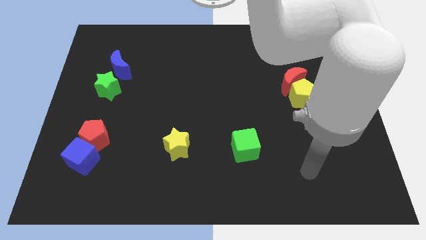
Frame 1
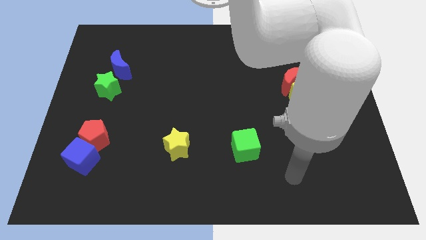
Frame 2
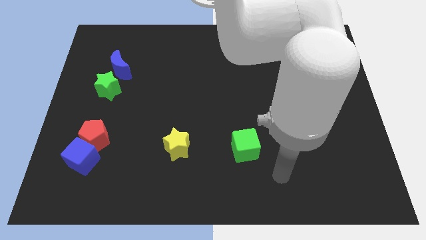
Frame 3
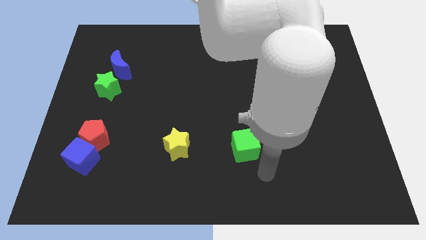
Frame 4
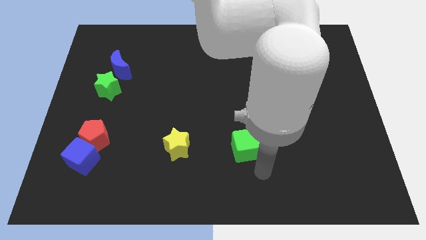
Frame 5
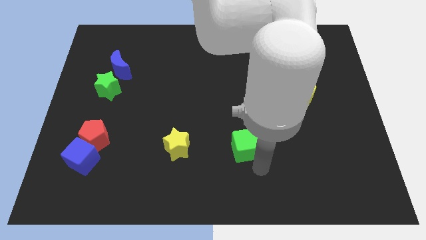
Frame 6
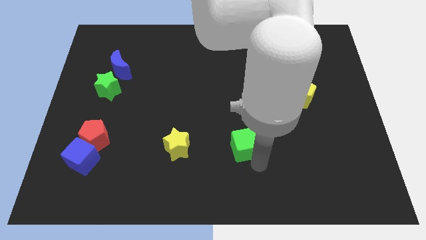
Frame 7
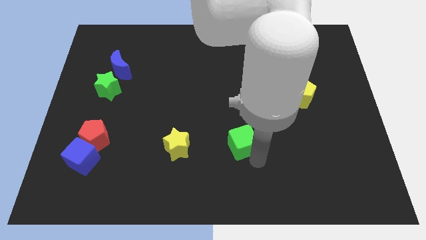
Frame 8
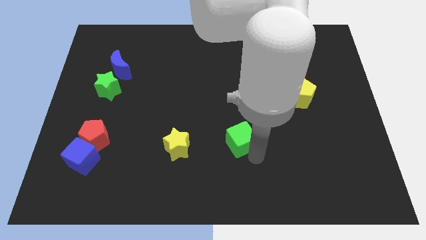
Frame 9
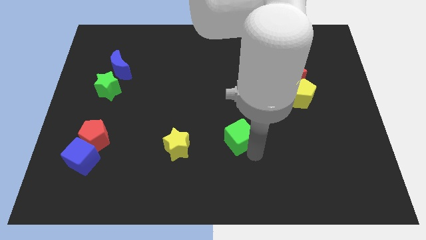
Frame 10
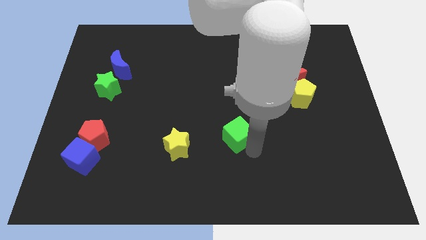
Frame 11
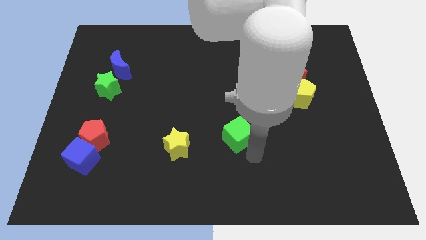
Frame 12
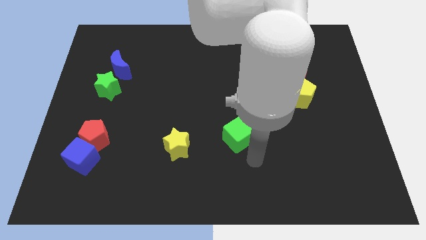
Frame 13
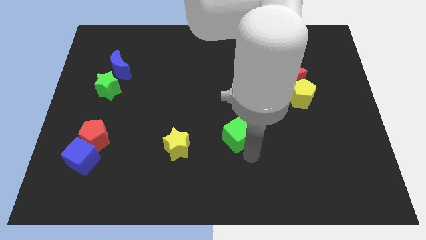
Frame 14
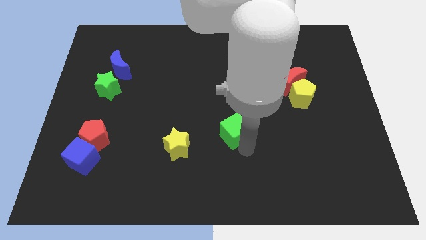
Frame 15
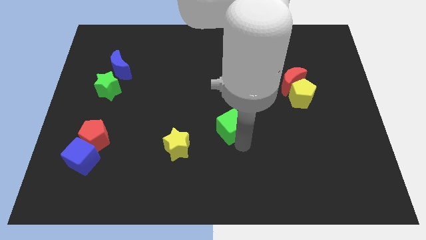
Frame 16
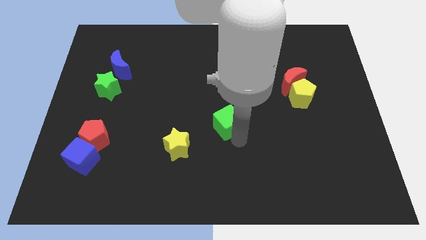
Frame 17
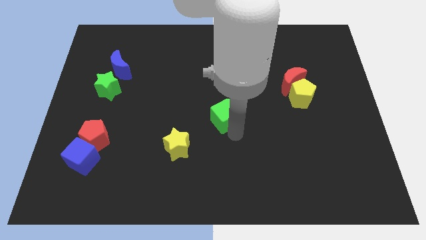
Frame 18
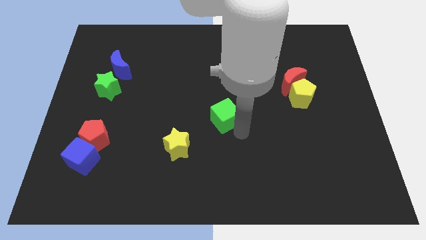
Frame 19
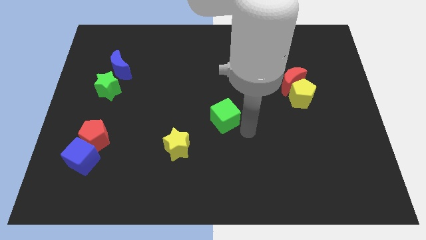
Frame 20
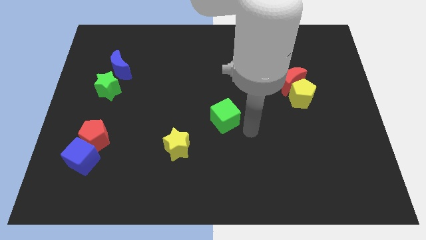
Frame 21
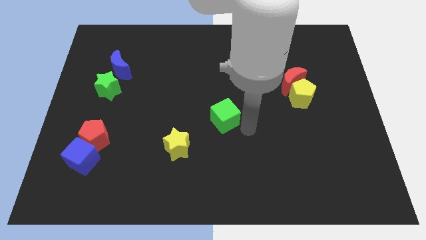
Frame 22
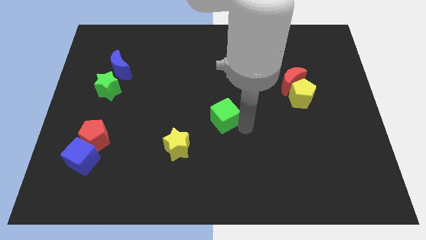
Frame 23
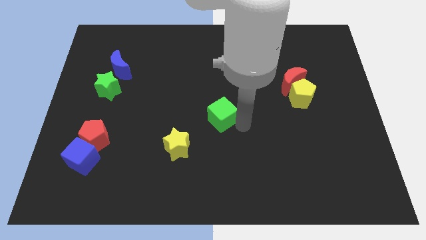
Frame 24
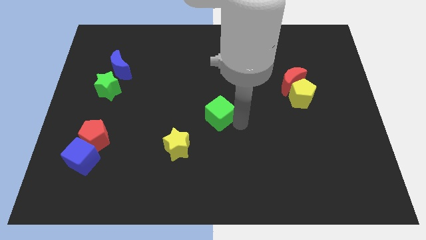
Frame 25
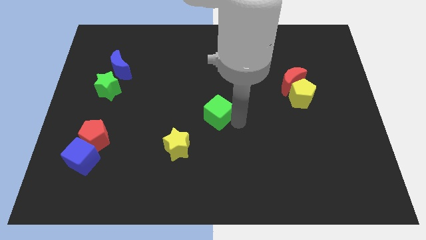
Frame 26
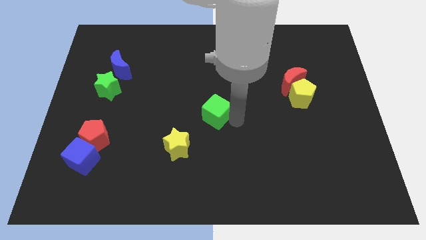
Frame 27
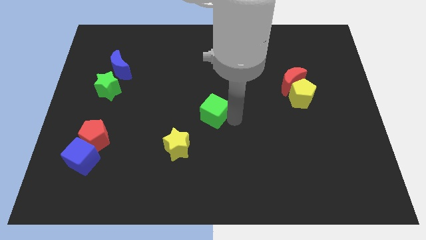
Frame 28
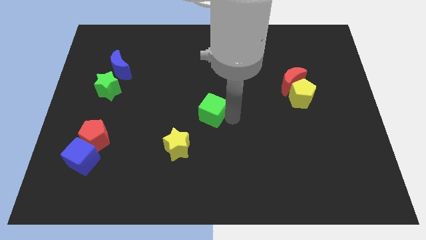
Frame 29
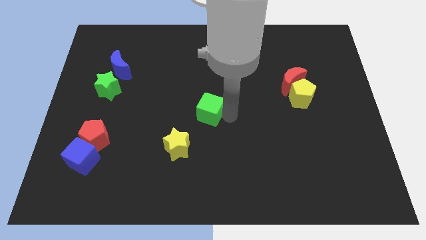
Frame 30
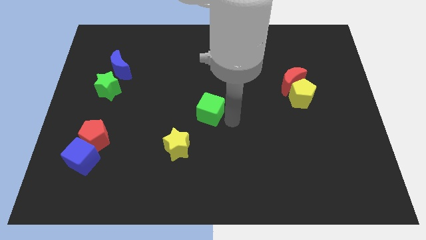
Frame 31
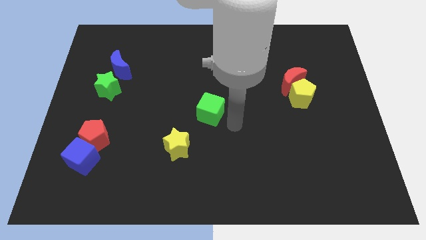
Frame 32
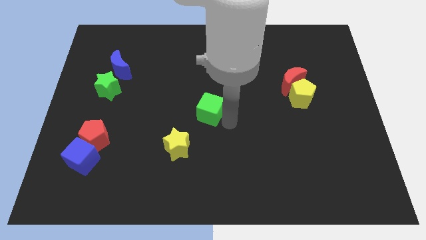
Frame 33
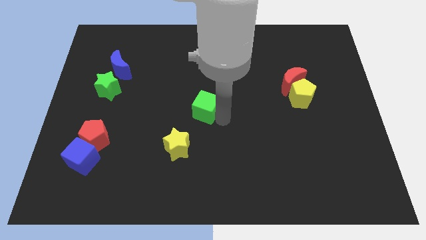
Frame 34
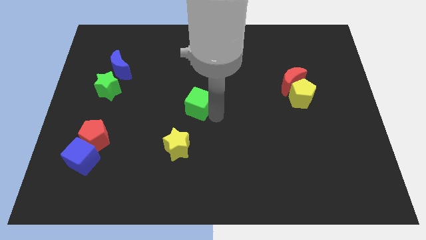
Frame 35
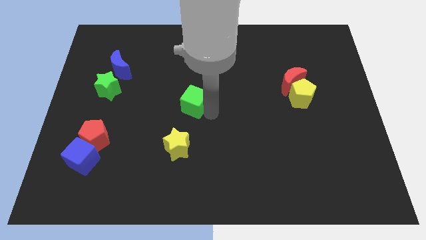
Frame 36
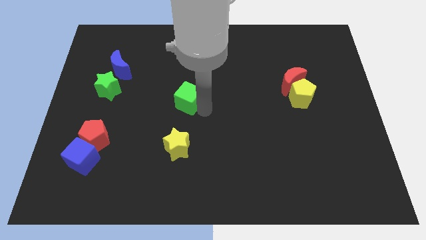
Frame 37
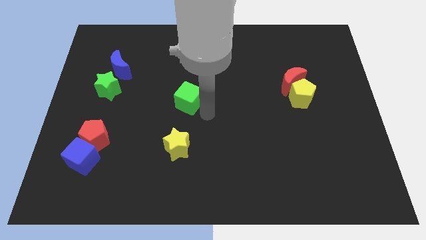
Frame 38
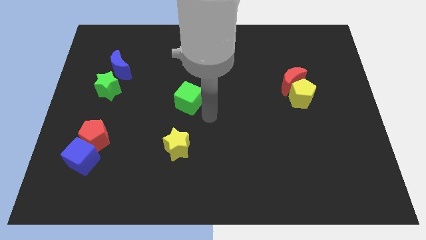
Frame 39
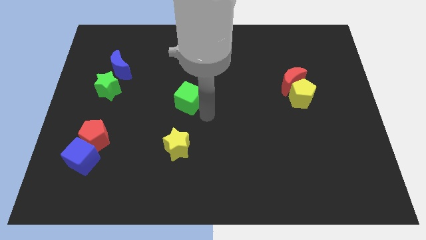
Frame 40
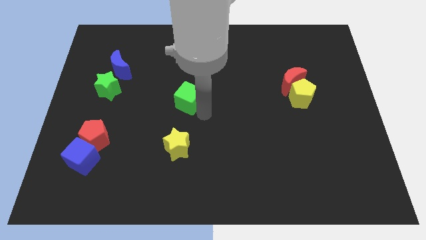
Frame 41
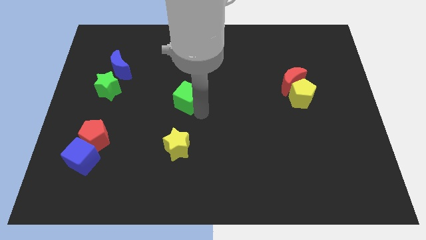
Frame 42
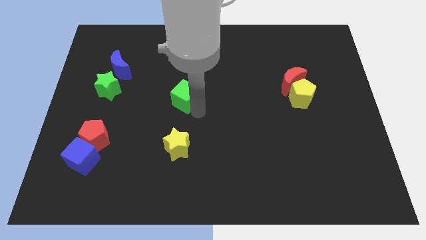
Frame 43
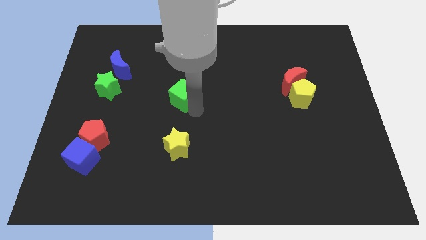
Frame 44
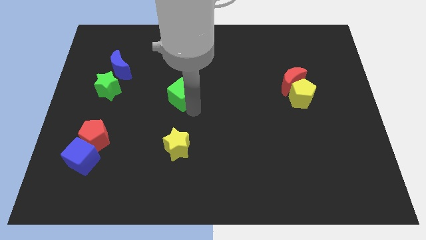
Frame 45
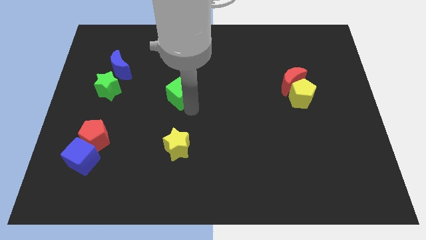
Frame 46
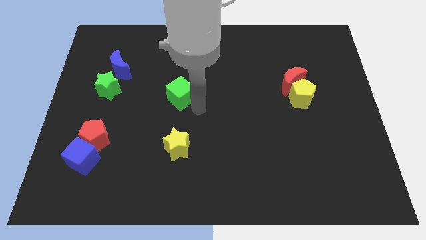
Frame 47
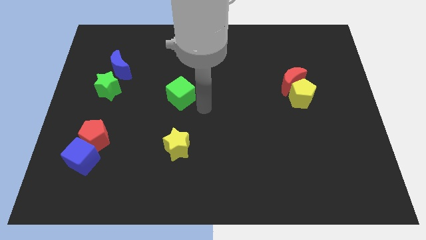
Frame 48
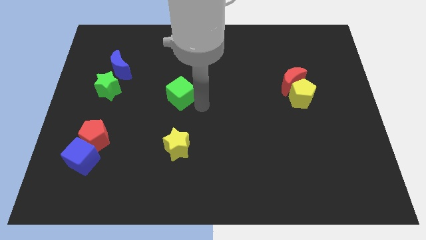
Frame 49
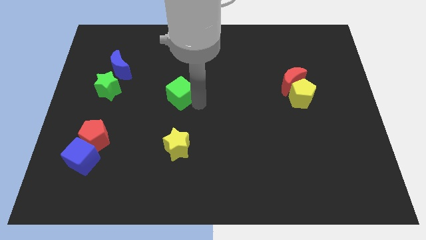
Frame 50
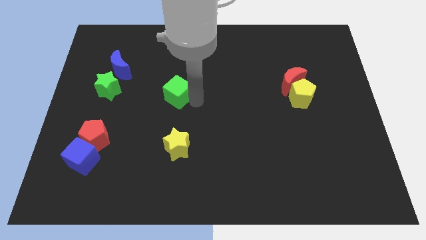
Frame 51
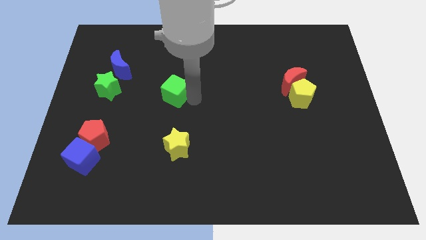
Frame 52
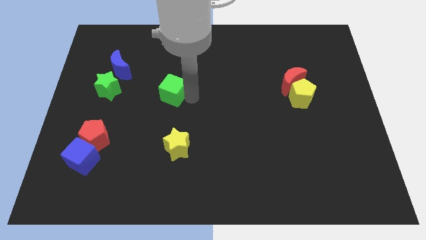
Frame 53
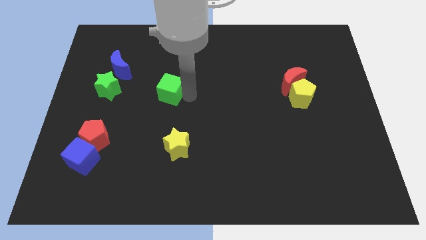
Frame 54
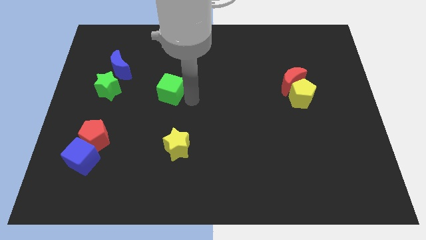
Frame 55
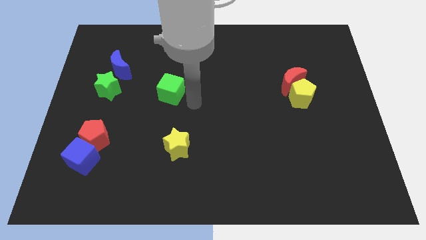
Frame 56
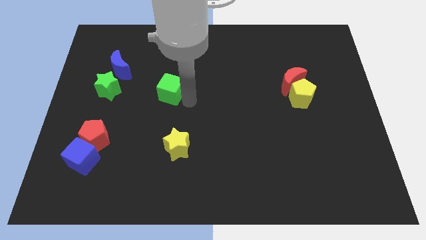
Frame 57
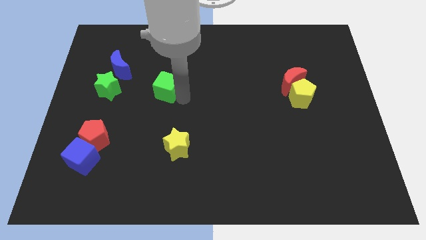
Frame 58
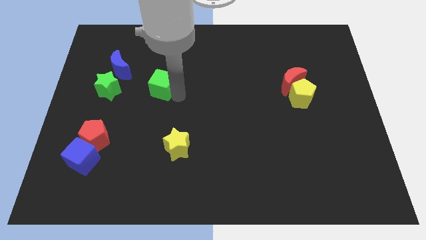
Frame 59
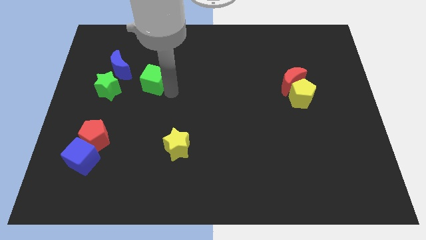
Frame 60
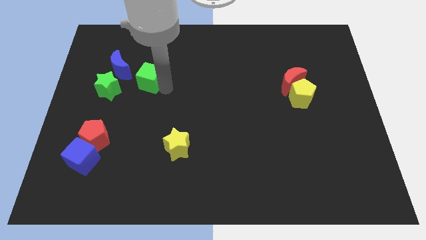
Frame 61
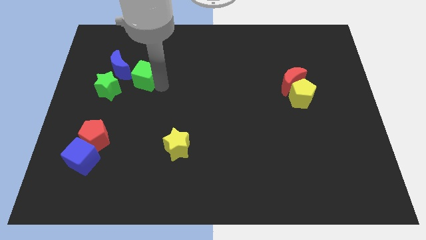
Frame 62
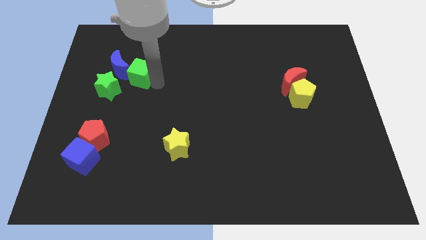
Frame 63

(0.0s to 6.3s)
put the green cube to the blue moon
